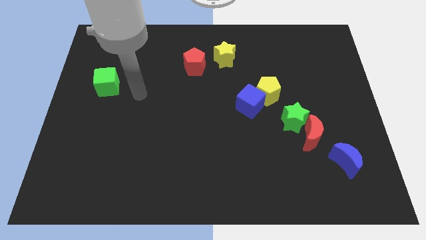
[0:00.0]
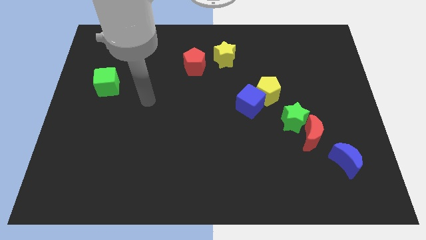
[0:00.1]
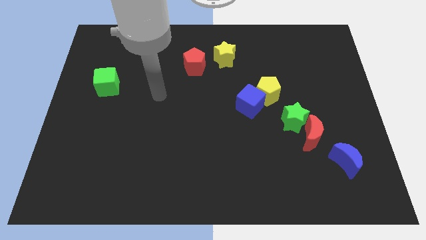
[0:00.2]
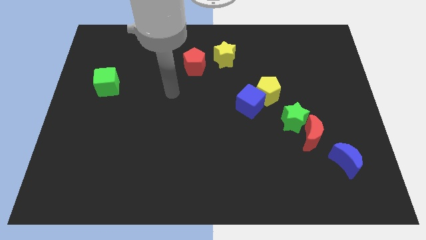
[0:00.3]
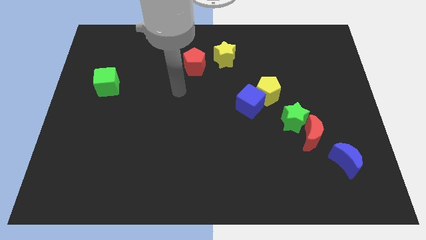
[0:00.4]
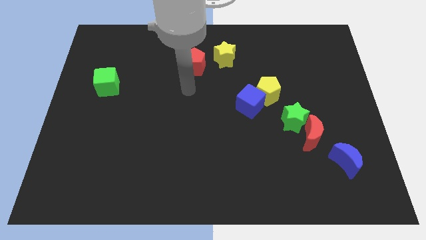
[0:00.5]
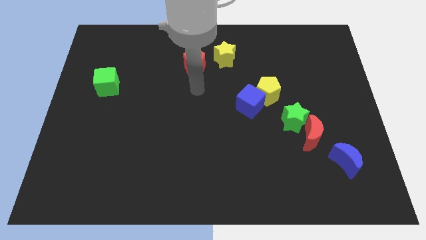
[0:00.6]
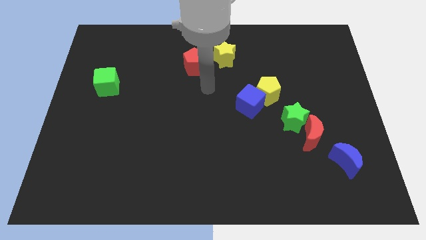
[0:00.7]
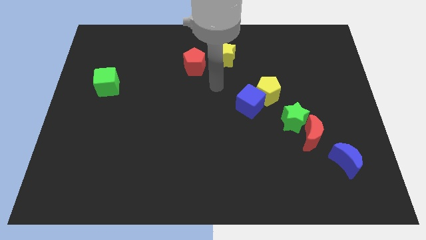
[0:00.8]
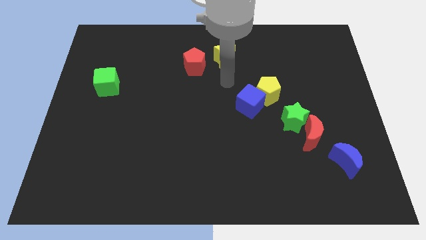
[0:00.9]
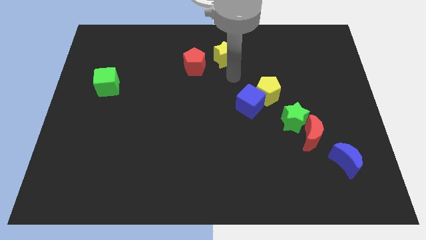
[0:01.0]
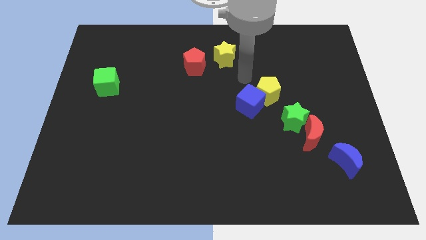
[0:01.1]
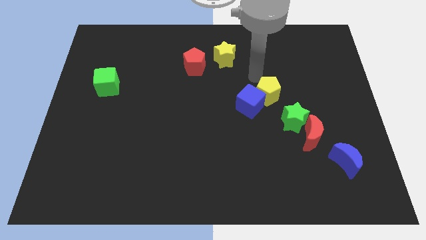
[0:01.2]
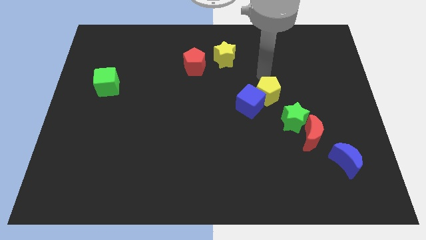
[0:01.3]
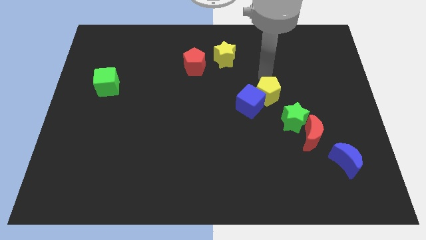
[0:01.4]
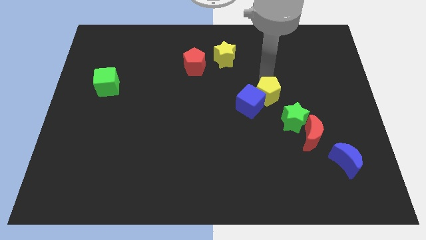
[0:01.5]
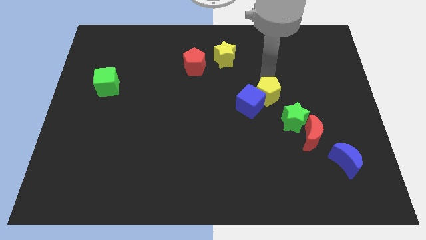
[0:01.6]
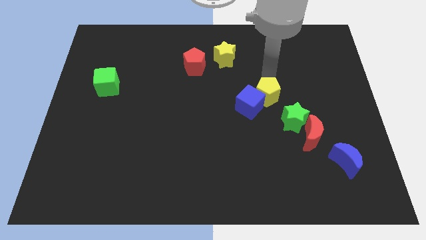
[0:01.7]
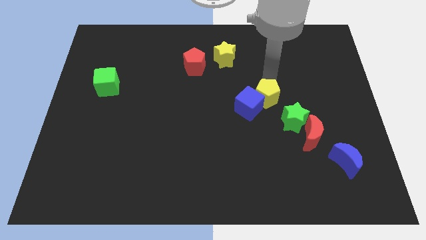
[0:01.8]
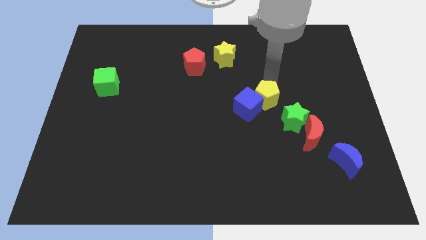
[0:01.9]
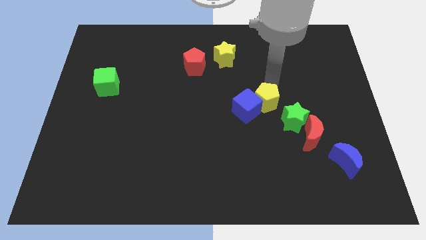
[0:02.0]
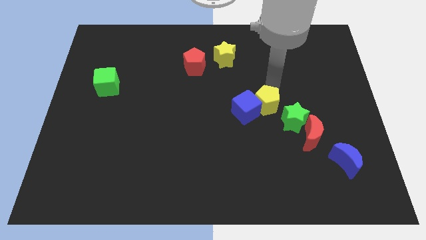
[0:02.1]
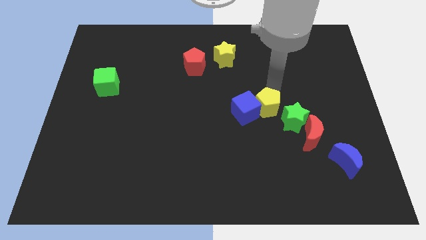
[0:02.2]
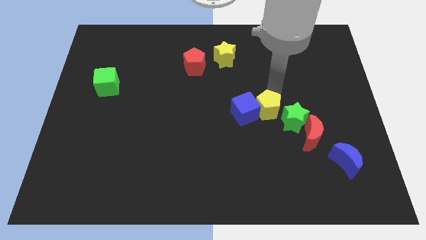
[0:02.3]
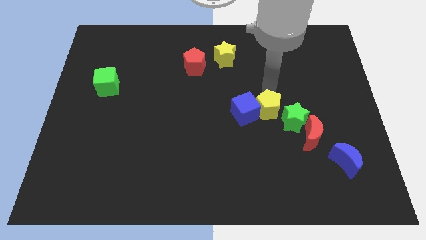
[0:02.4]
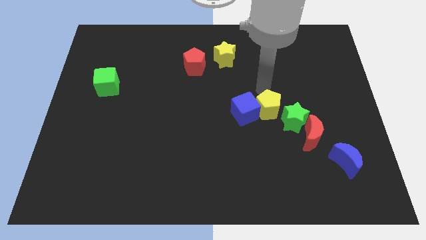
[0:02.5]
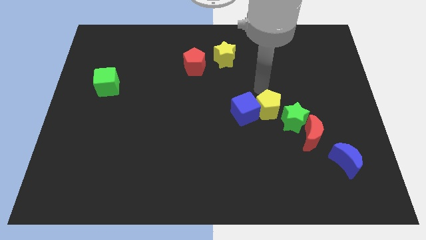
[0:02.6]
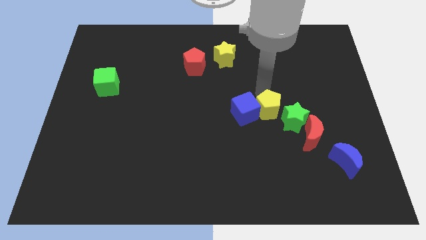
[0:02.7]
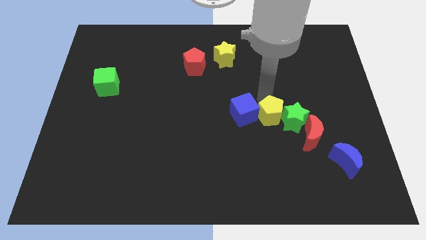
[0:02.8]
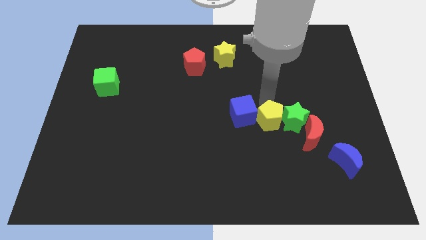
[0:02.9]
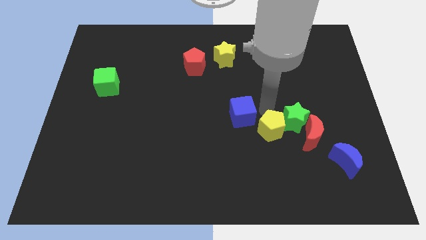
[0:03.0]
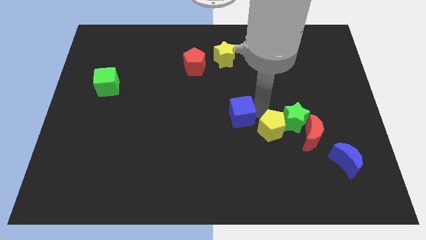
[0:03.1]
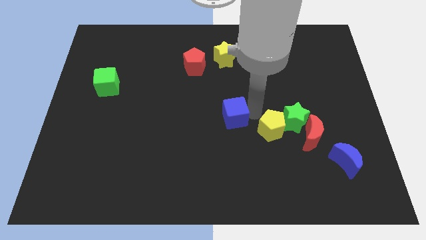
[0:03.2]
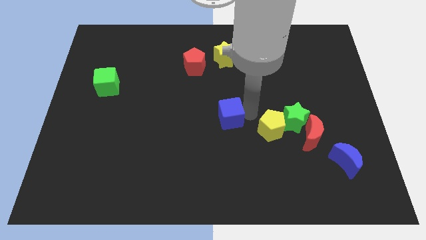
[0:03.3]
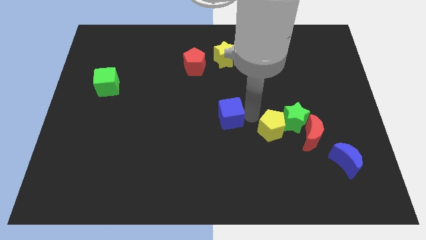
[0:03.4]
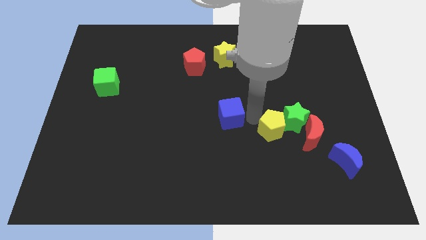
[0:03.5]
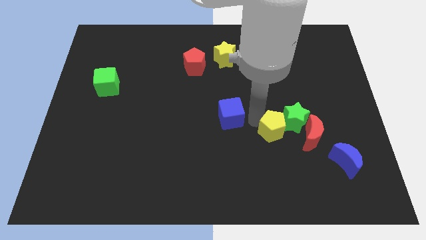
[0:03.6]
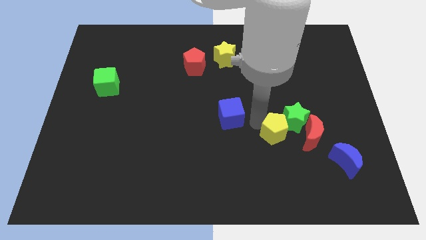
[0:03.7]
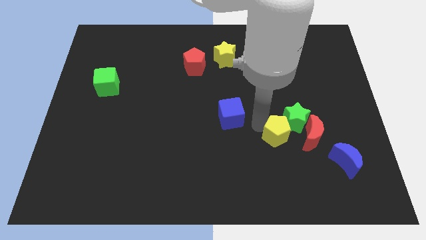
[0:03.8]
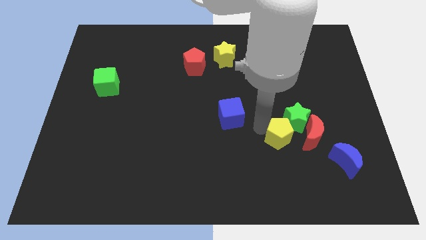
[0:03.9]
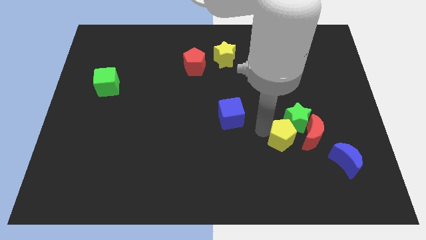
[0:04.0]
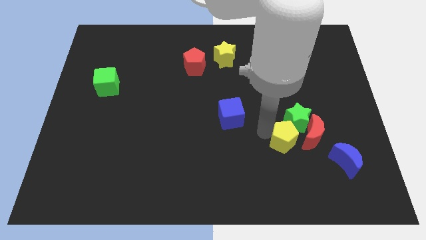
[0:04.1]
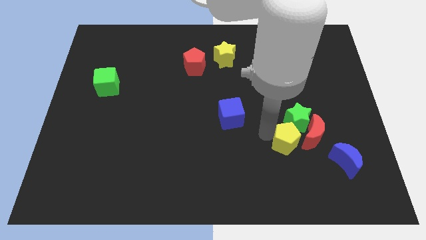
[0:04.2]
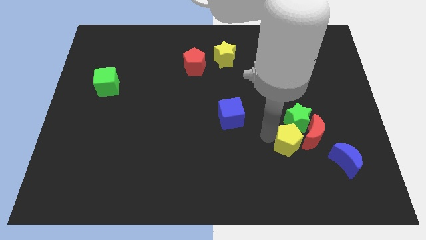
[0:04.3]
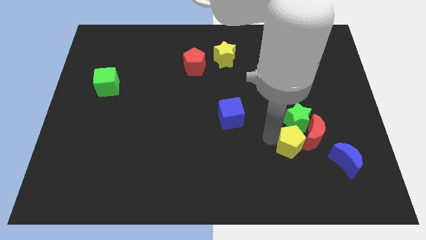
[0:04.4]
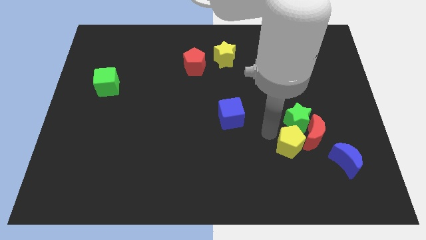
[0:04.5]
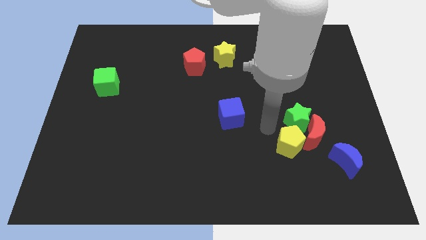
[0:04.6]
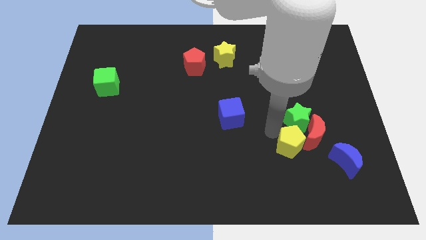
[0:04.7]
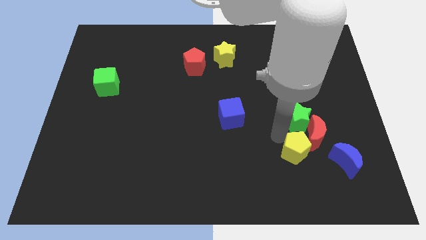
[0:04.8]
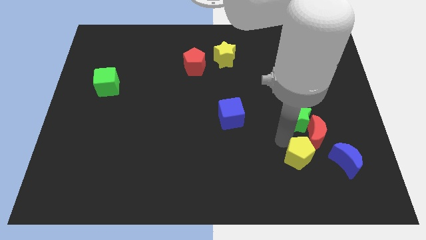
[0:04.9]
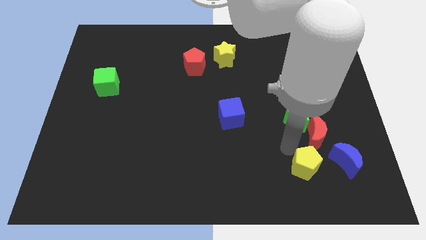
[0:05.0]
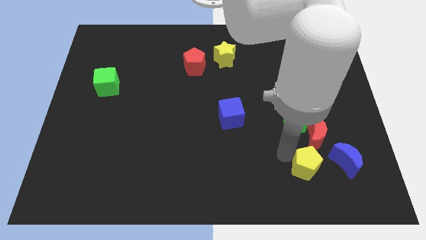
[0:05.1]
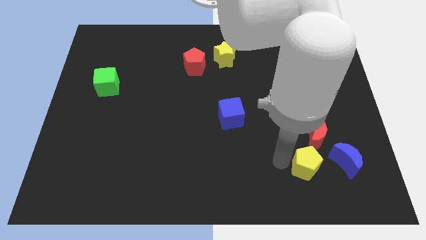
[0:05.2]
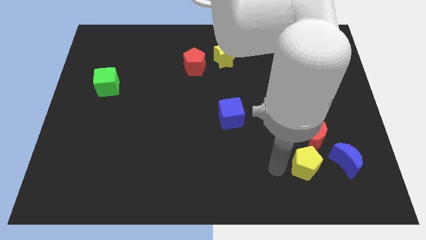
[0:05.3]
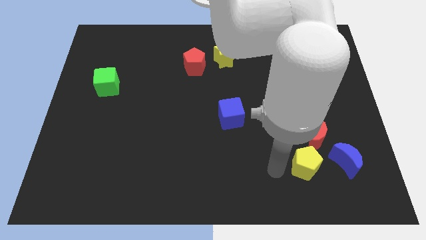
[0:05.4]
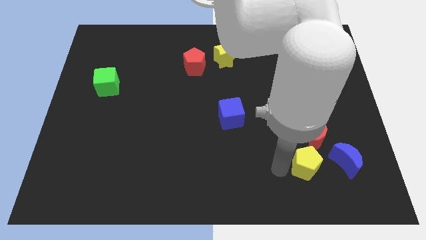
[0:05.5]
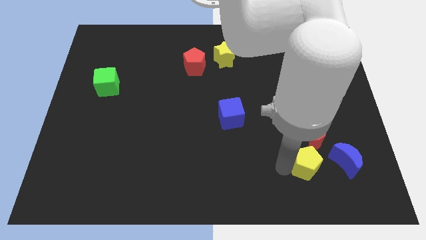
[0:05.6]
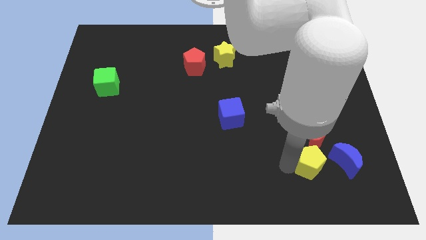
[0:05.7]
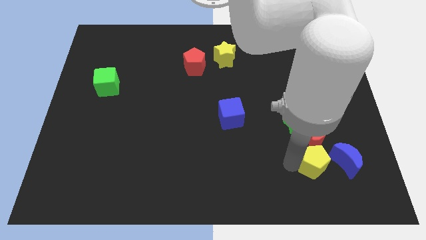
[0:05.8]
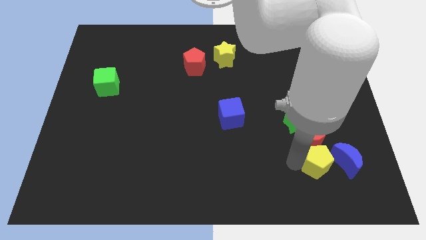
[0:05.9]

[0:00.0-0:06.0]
move the yellow pentagon towards the blue moon

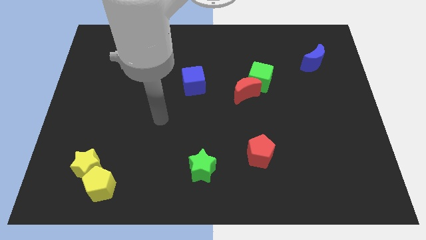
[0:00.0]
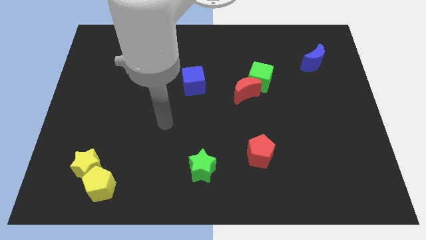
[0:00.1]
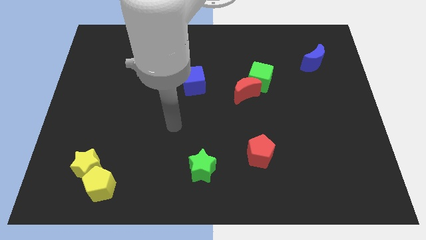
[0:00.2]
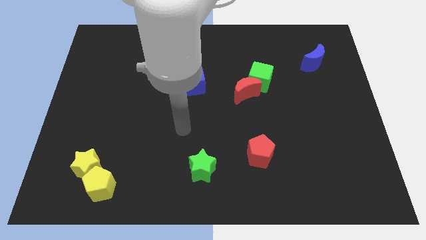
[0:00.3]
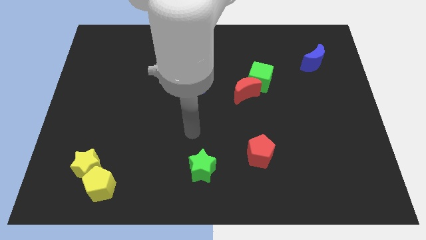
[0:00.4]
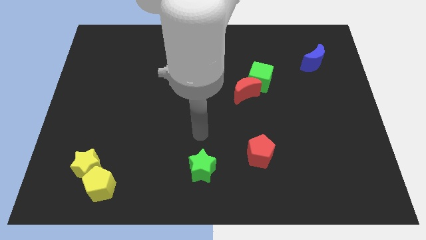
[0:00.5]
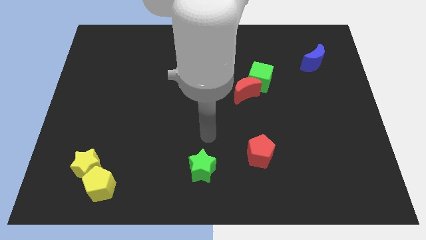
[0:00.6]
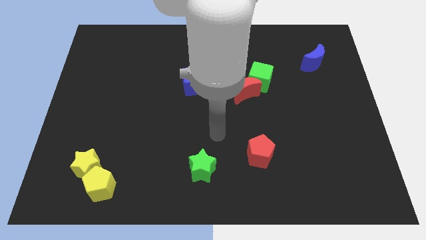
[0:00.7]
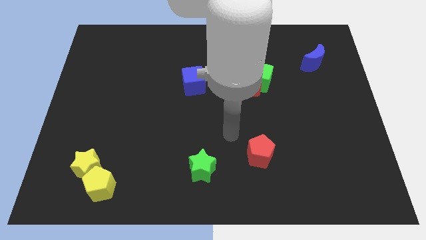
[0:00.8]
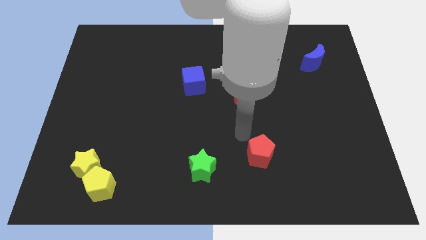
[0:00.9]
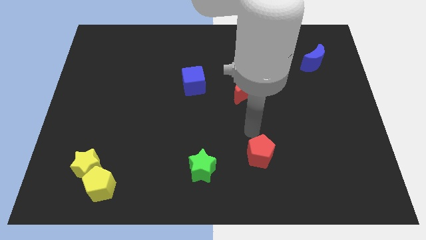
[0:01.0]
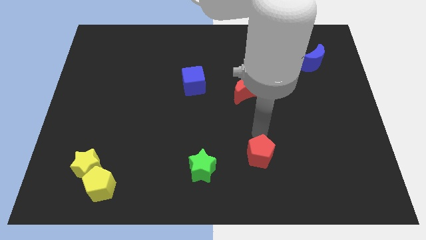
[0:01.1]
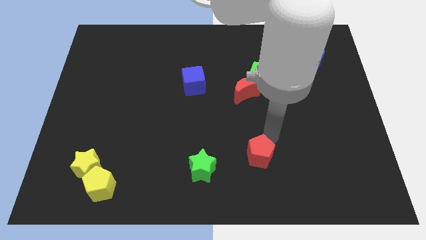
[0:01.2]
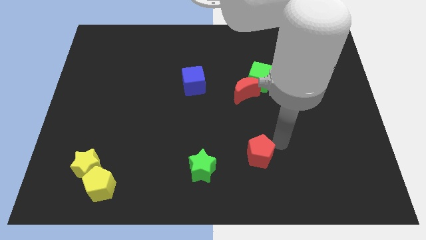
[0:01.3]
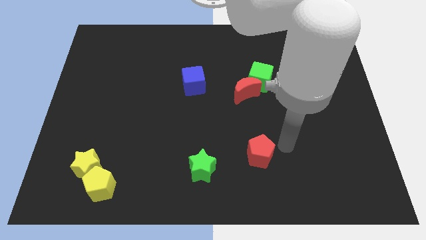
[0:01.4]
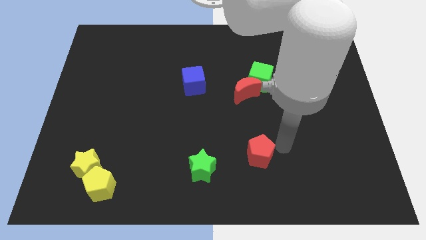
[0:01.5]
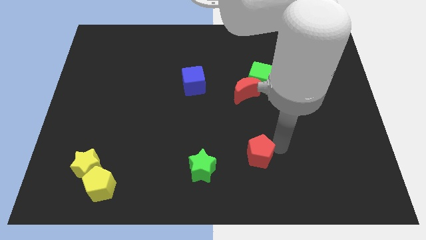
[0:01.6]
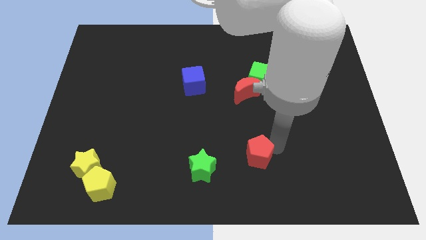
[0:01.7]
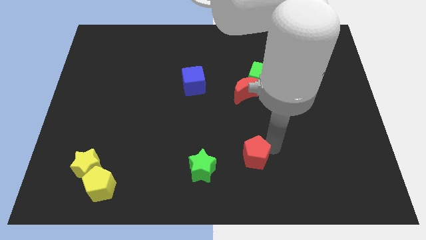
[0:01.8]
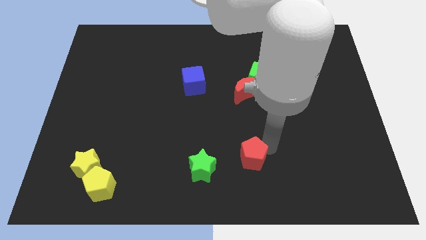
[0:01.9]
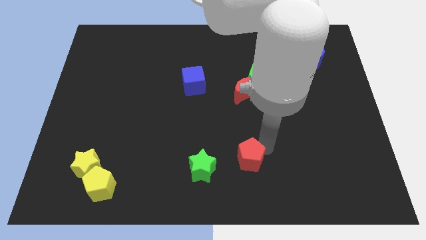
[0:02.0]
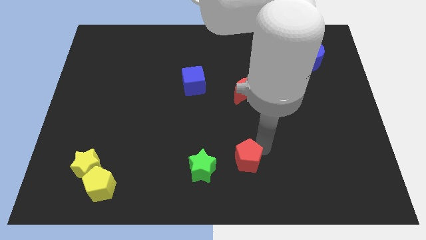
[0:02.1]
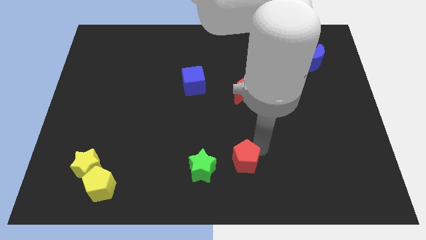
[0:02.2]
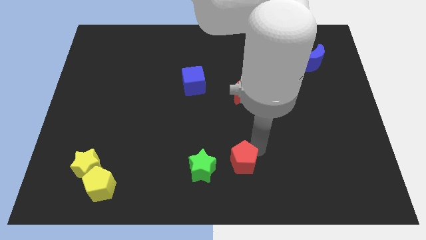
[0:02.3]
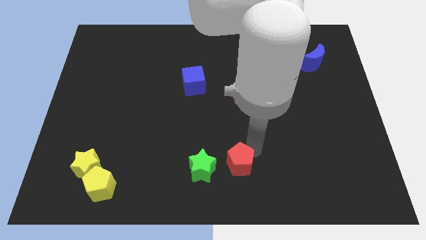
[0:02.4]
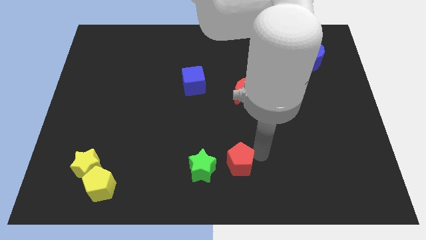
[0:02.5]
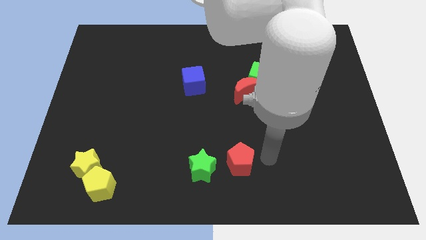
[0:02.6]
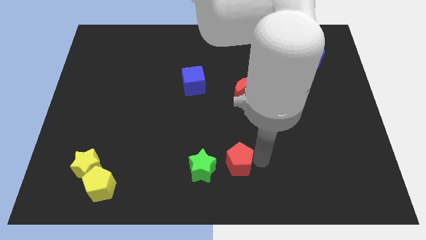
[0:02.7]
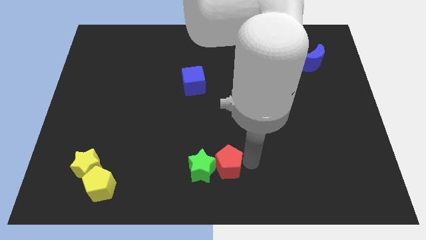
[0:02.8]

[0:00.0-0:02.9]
put the red pentagon next to the green star
